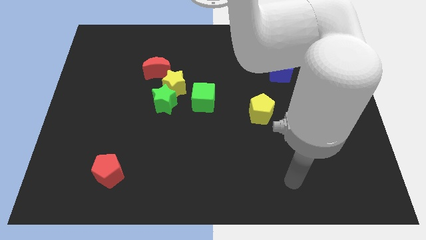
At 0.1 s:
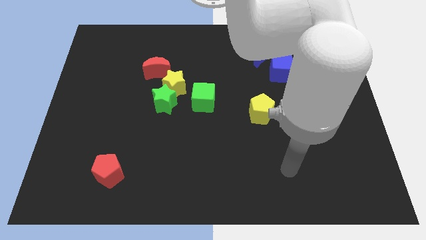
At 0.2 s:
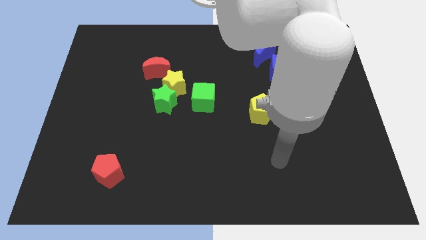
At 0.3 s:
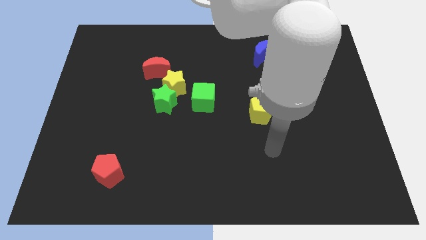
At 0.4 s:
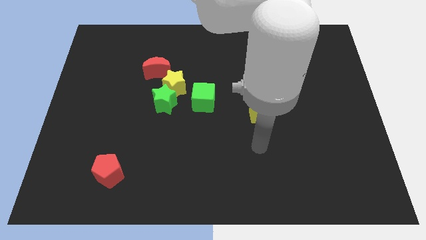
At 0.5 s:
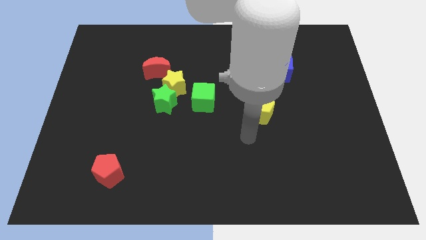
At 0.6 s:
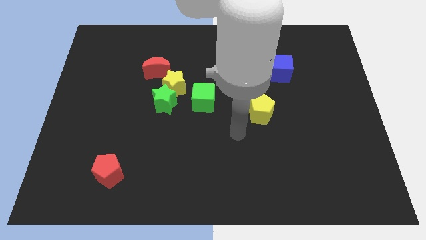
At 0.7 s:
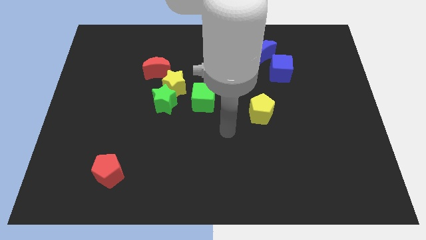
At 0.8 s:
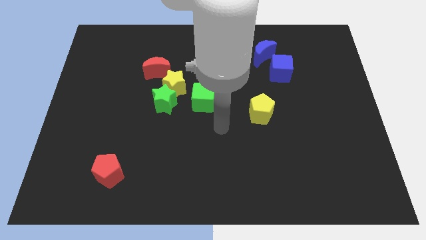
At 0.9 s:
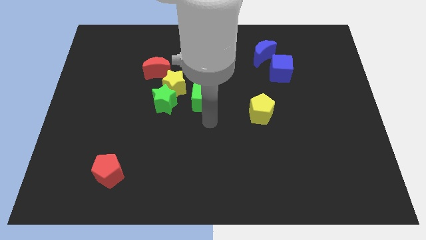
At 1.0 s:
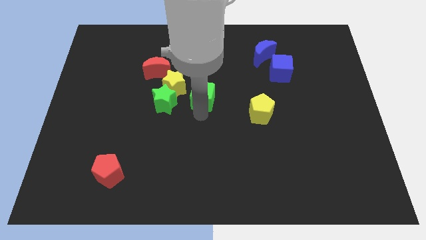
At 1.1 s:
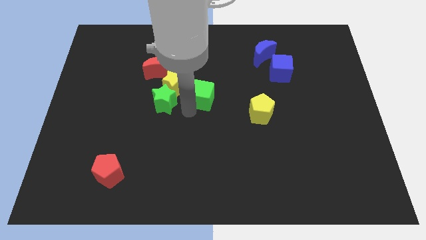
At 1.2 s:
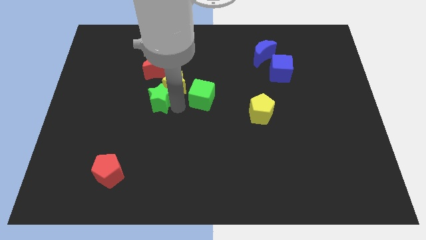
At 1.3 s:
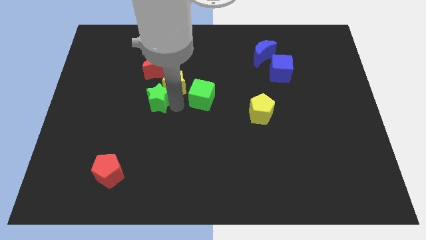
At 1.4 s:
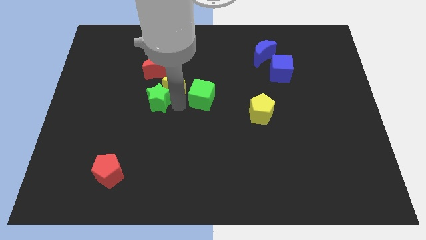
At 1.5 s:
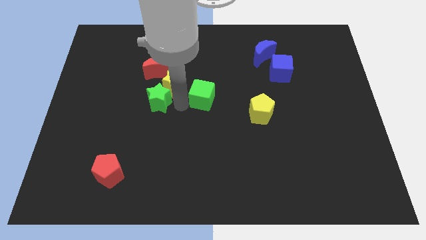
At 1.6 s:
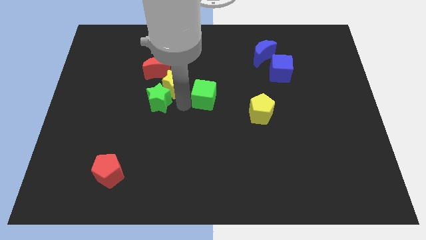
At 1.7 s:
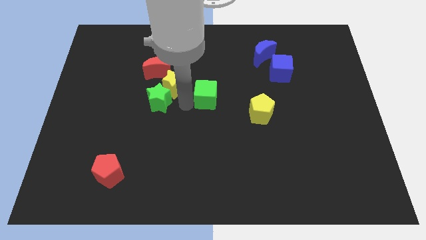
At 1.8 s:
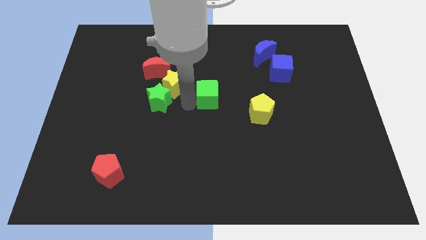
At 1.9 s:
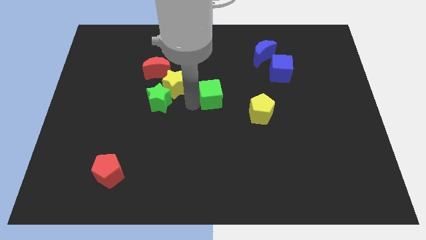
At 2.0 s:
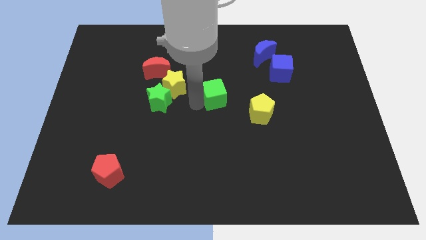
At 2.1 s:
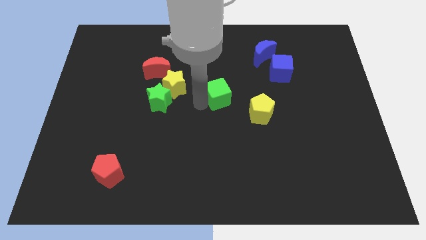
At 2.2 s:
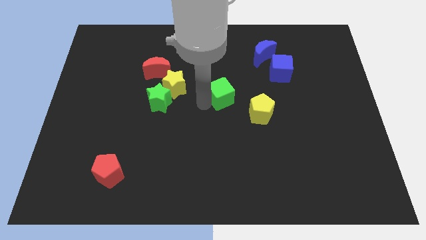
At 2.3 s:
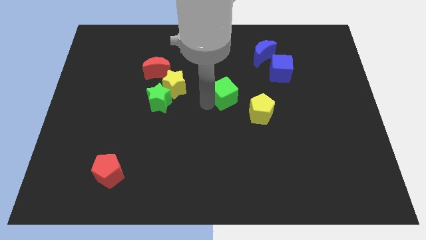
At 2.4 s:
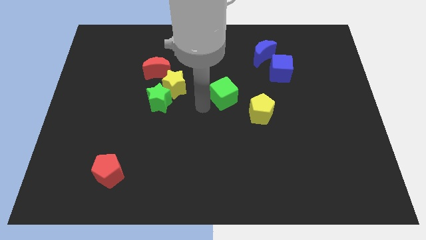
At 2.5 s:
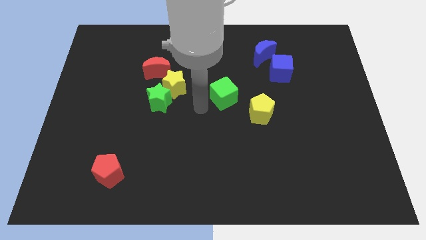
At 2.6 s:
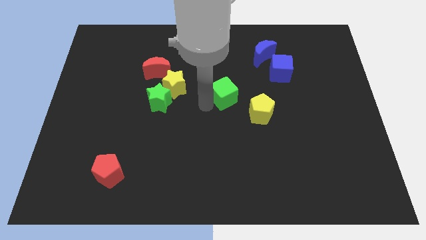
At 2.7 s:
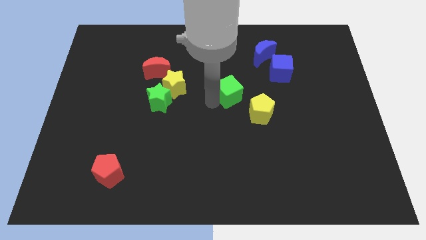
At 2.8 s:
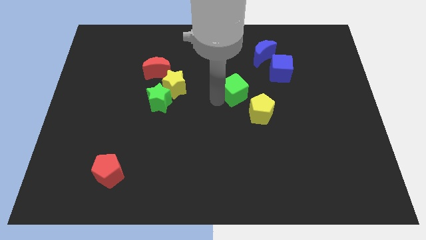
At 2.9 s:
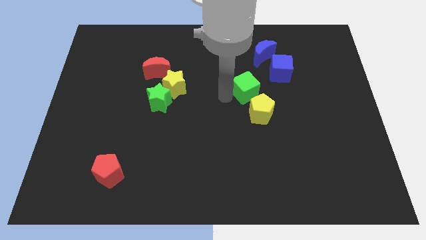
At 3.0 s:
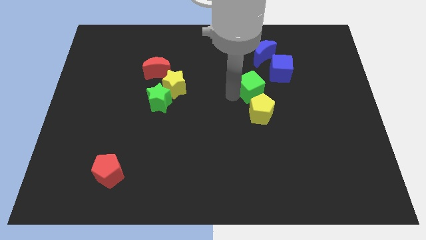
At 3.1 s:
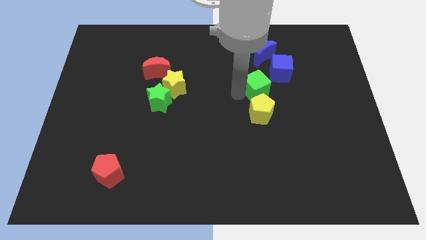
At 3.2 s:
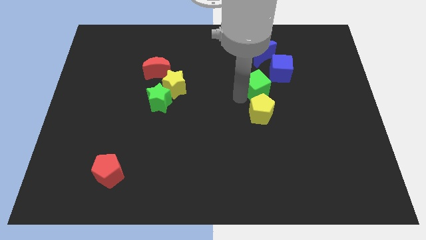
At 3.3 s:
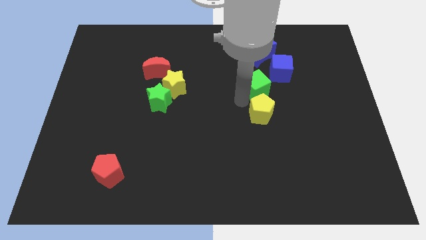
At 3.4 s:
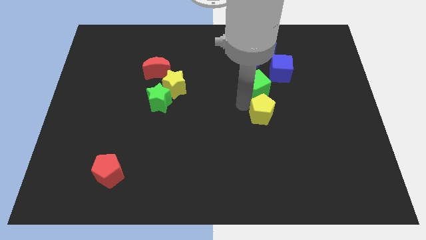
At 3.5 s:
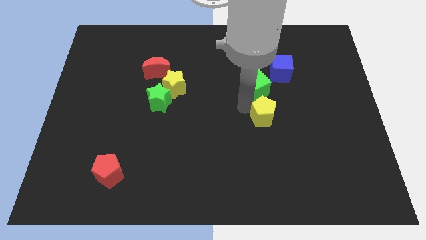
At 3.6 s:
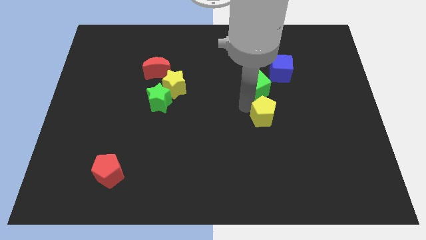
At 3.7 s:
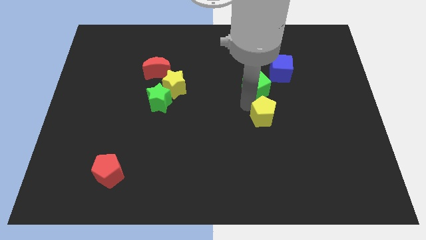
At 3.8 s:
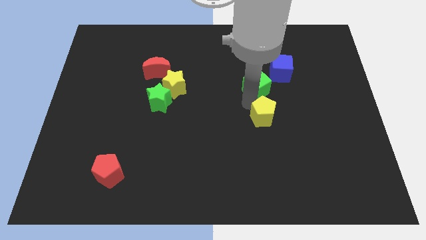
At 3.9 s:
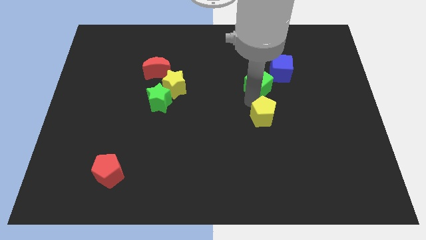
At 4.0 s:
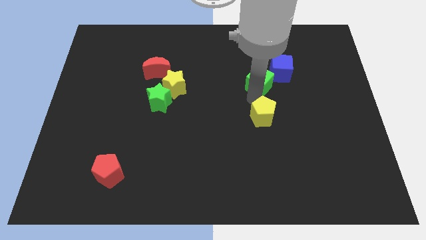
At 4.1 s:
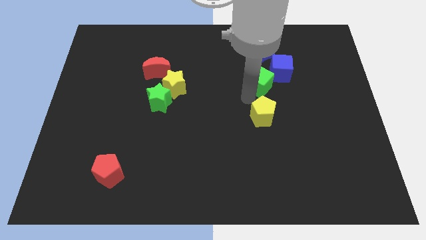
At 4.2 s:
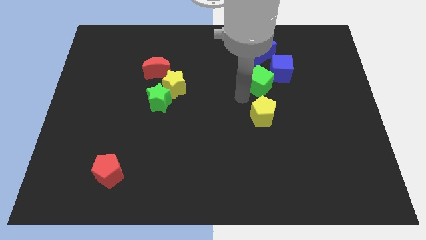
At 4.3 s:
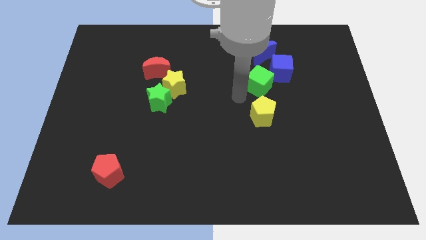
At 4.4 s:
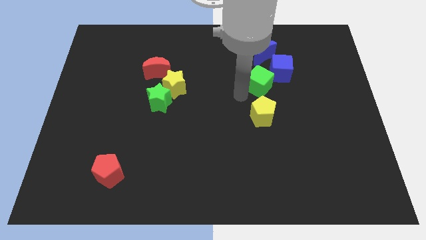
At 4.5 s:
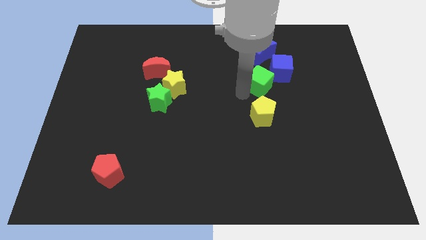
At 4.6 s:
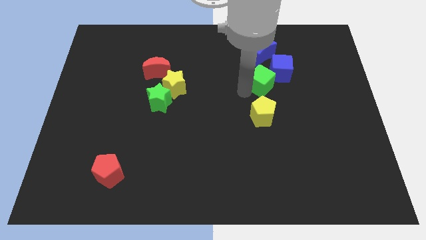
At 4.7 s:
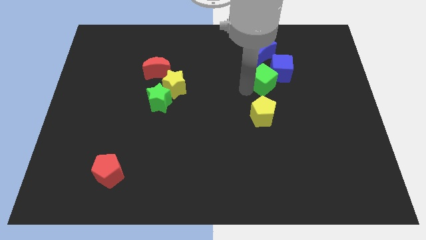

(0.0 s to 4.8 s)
move the green cube next to the blue cube

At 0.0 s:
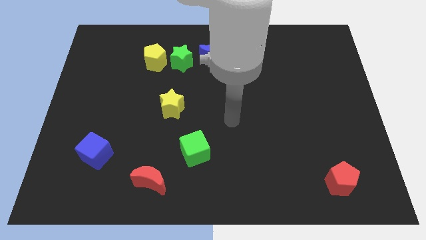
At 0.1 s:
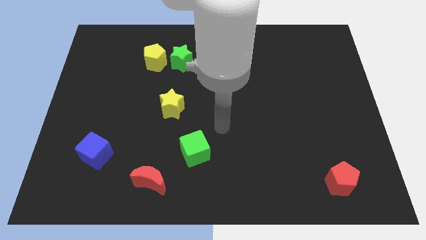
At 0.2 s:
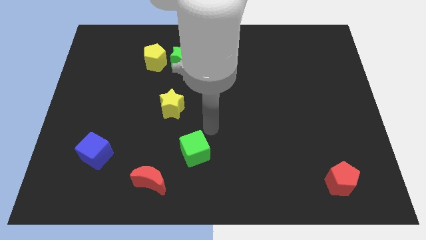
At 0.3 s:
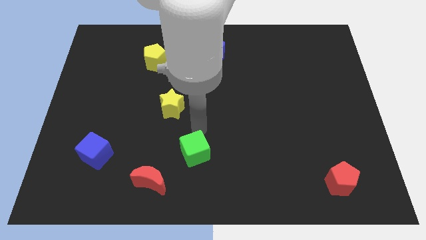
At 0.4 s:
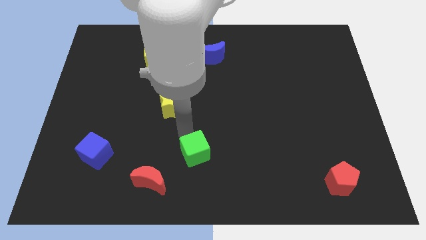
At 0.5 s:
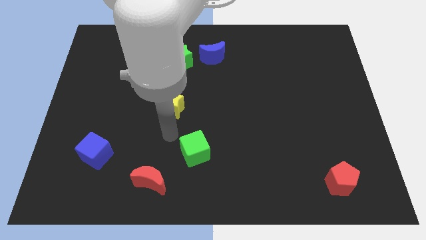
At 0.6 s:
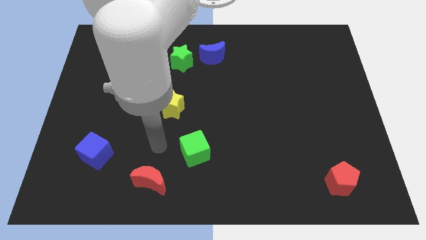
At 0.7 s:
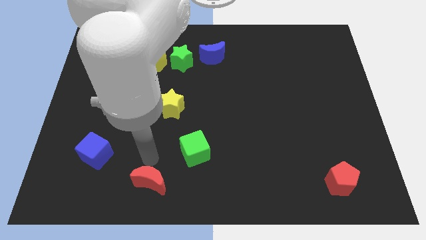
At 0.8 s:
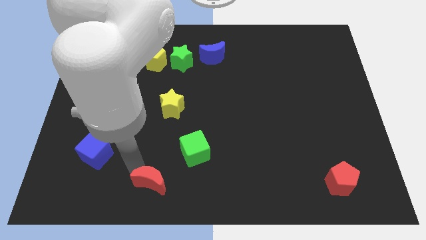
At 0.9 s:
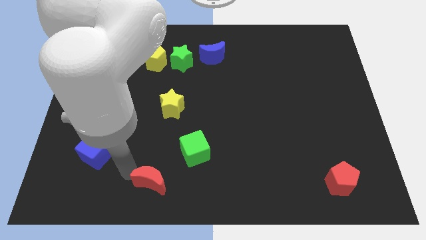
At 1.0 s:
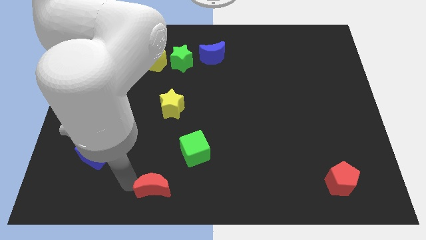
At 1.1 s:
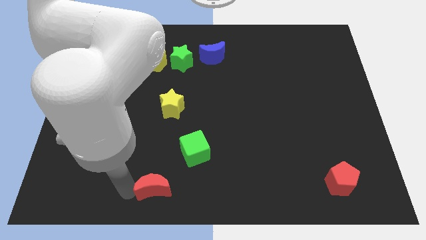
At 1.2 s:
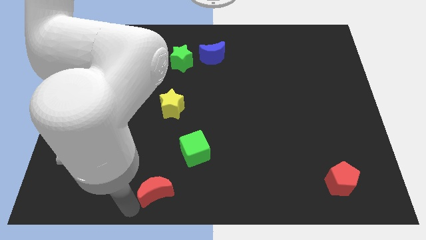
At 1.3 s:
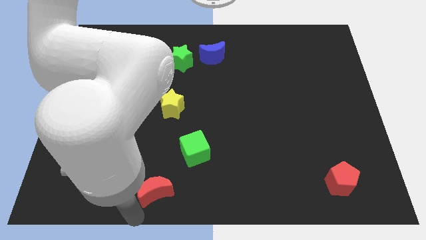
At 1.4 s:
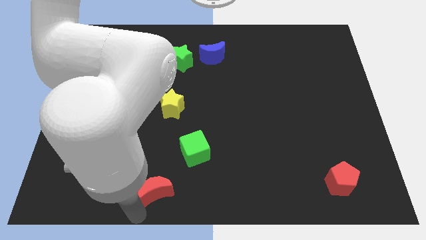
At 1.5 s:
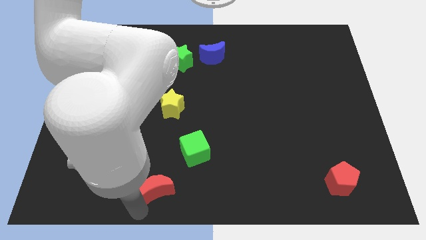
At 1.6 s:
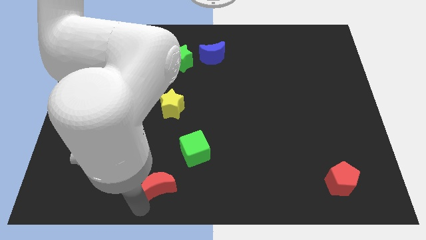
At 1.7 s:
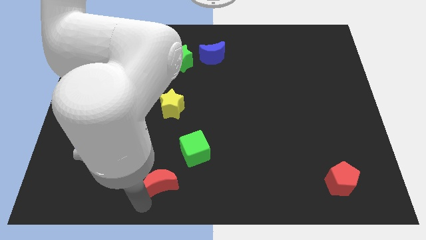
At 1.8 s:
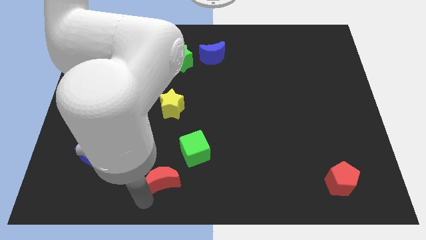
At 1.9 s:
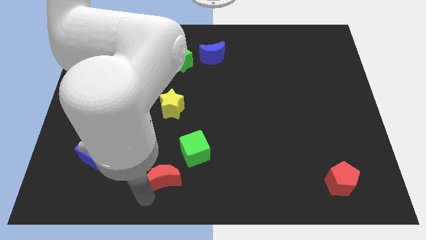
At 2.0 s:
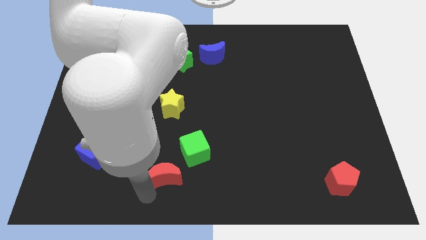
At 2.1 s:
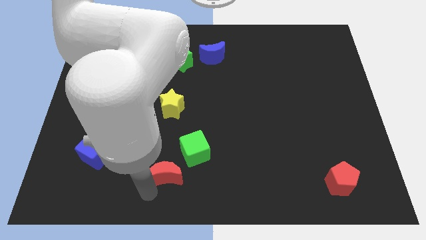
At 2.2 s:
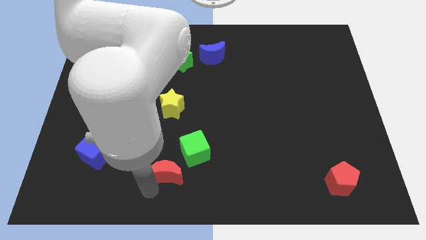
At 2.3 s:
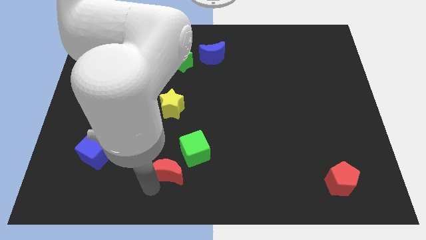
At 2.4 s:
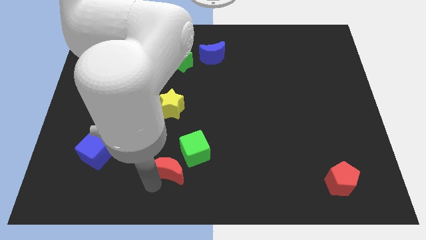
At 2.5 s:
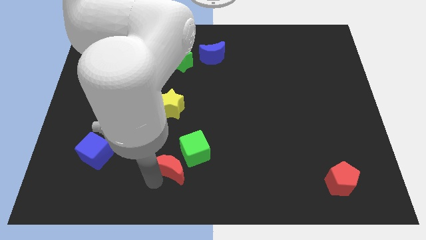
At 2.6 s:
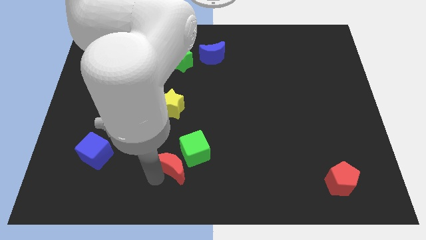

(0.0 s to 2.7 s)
move the red moon towards the green cube

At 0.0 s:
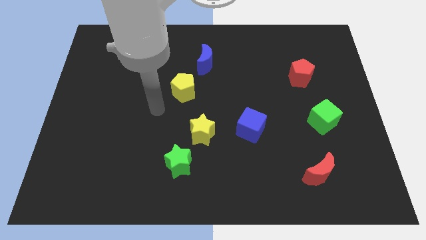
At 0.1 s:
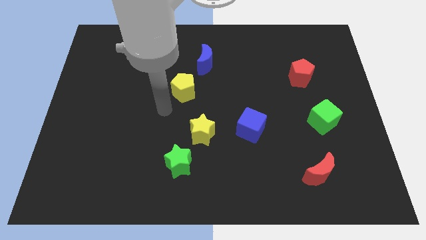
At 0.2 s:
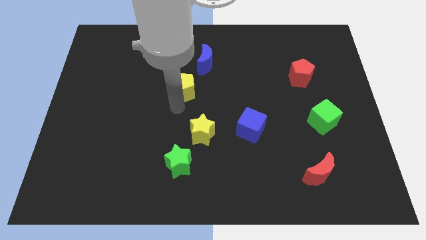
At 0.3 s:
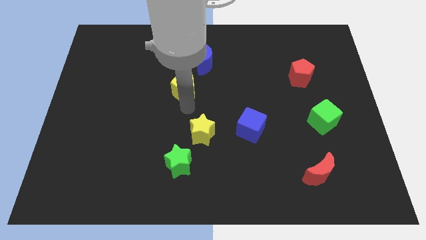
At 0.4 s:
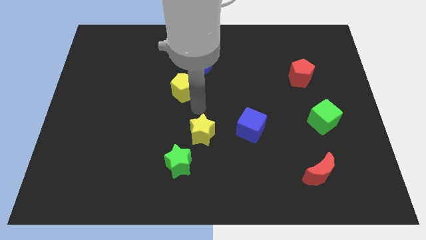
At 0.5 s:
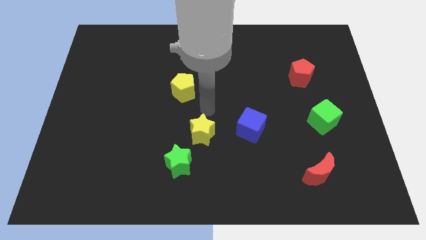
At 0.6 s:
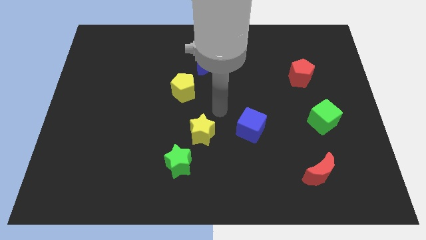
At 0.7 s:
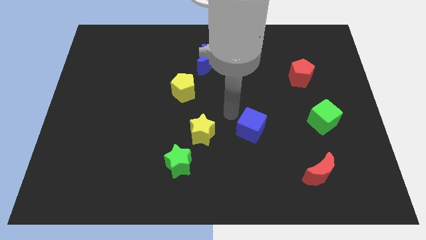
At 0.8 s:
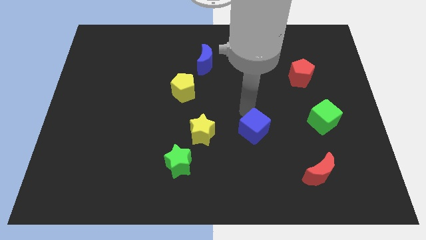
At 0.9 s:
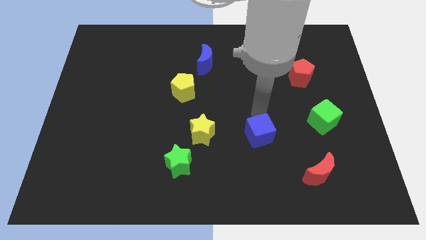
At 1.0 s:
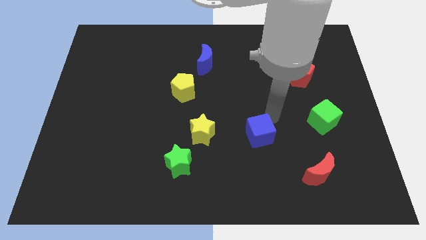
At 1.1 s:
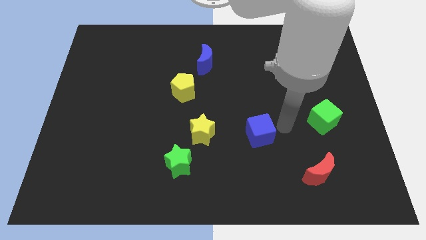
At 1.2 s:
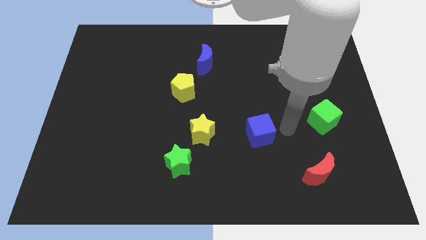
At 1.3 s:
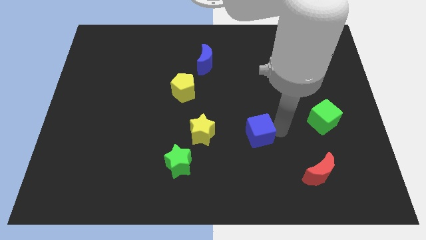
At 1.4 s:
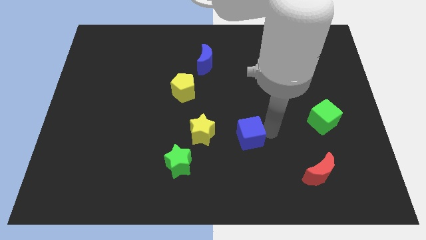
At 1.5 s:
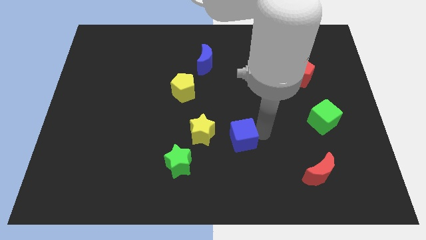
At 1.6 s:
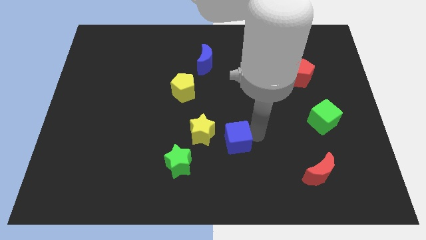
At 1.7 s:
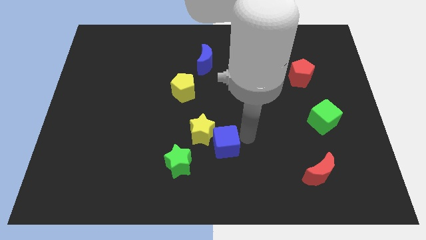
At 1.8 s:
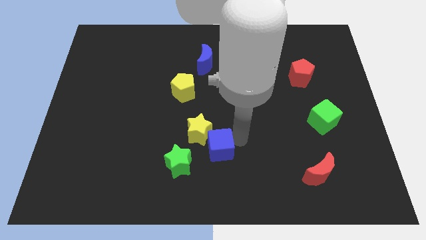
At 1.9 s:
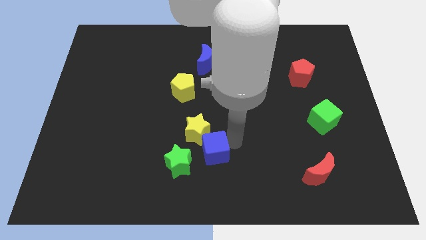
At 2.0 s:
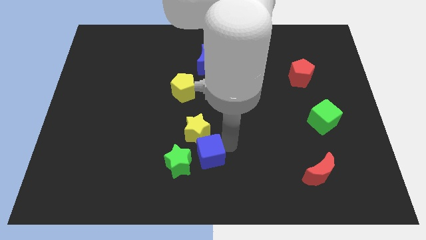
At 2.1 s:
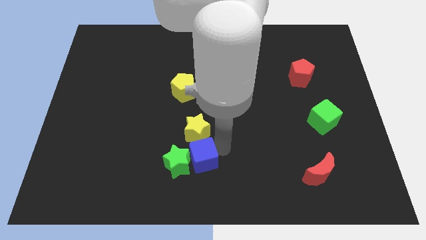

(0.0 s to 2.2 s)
put the blue cube next to the green star
